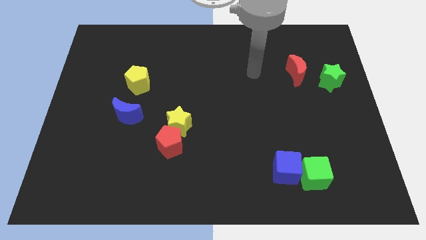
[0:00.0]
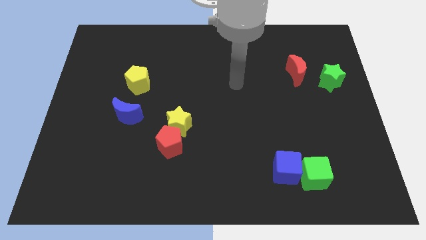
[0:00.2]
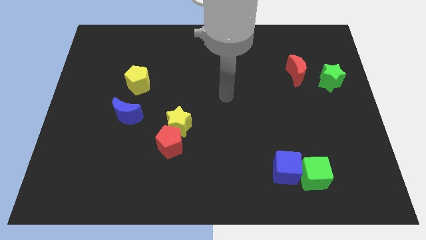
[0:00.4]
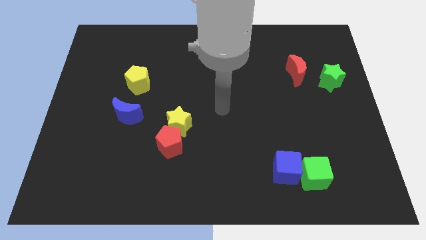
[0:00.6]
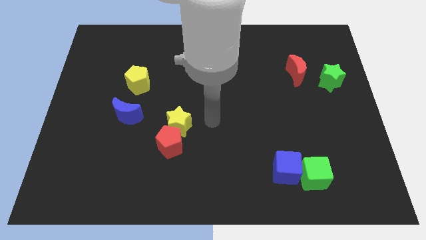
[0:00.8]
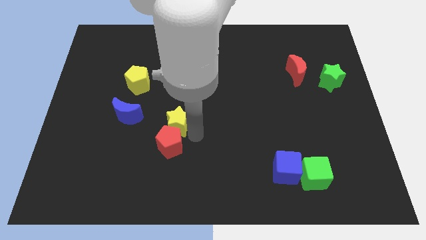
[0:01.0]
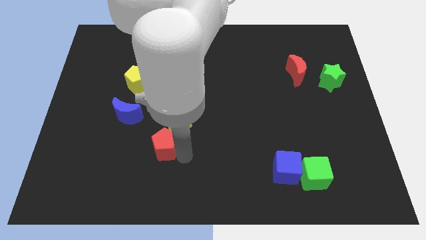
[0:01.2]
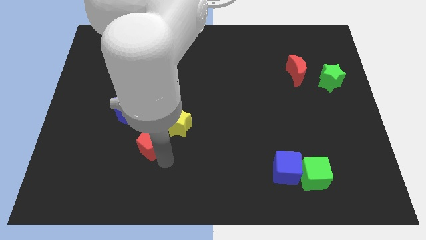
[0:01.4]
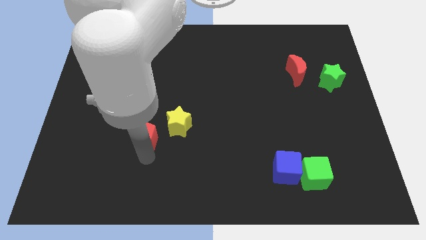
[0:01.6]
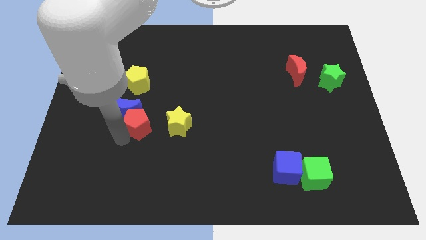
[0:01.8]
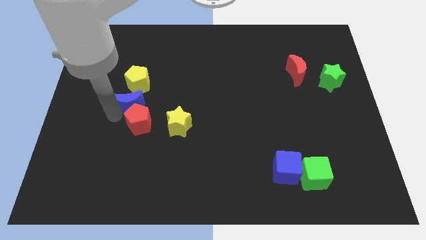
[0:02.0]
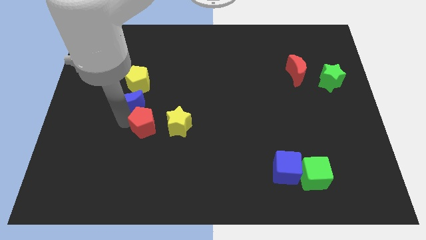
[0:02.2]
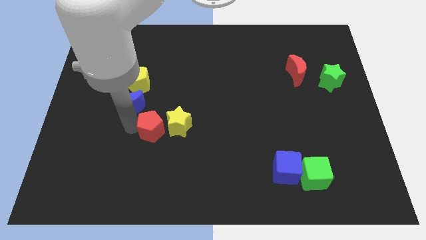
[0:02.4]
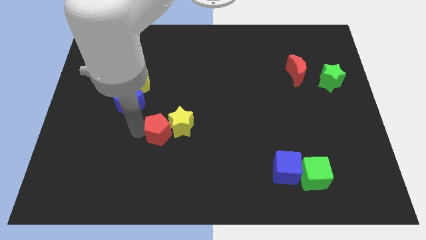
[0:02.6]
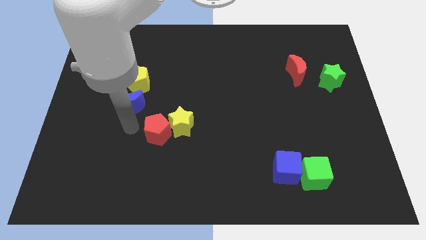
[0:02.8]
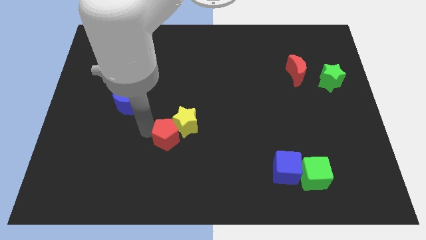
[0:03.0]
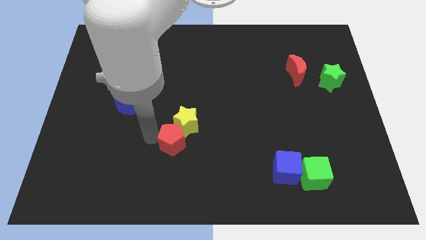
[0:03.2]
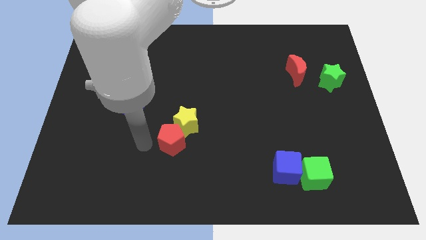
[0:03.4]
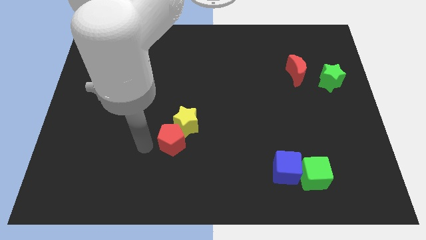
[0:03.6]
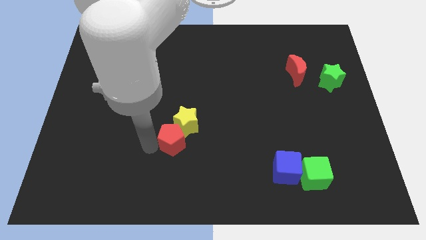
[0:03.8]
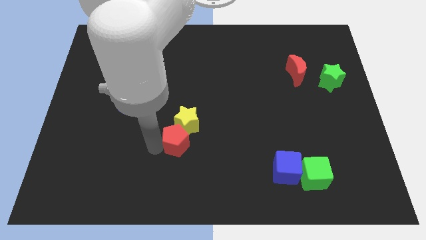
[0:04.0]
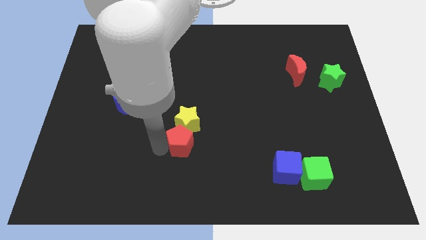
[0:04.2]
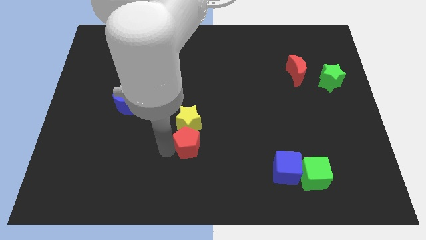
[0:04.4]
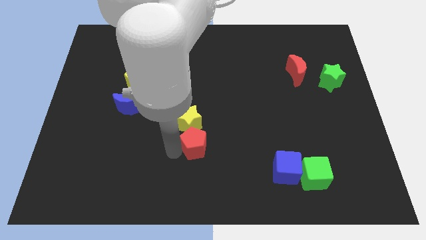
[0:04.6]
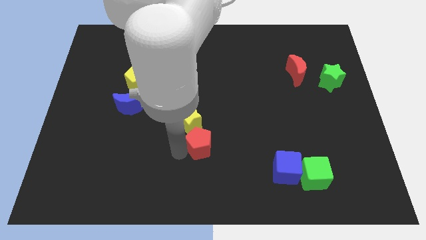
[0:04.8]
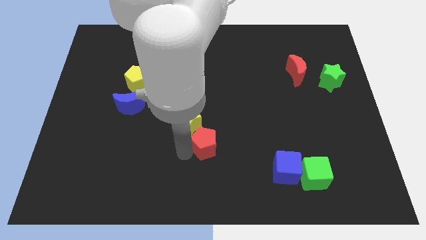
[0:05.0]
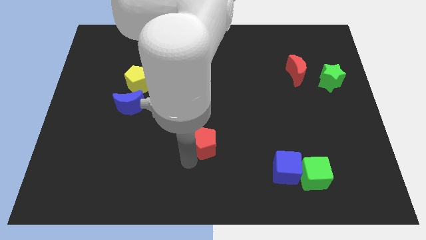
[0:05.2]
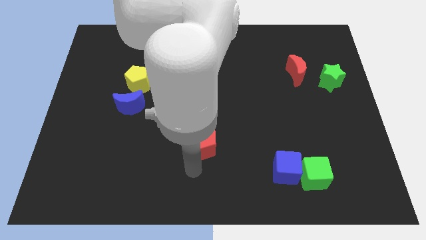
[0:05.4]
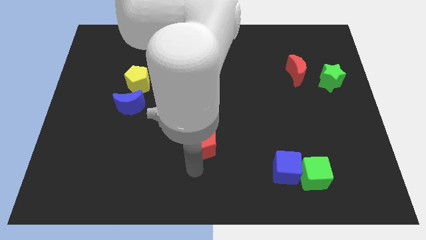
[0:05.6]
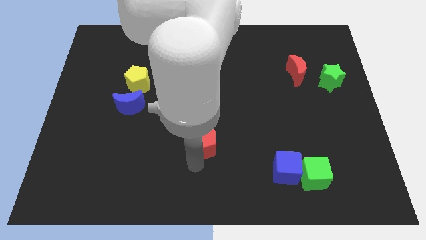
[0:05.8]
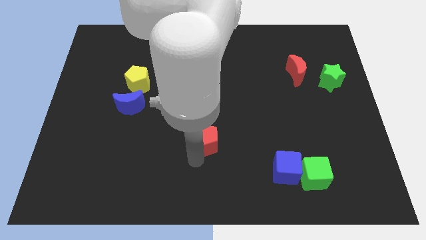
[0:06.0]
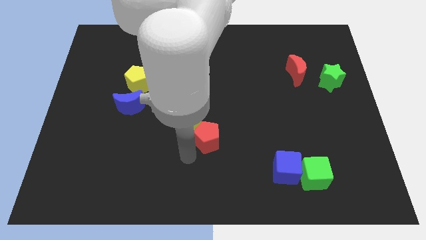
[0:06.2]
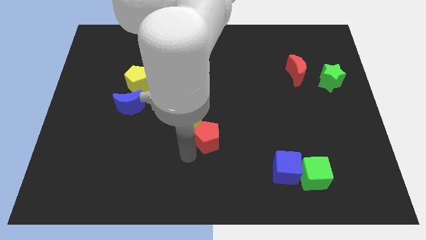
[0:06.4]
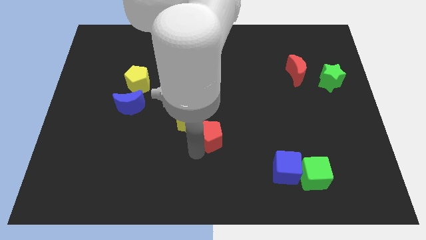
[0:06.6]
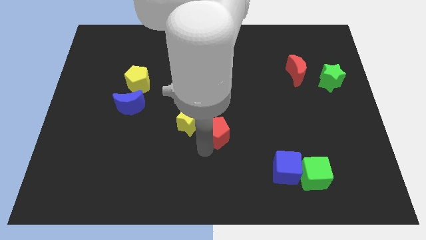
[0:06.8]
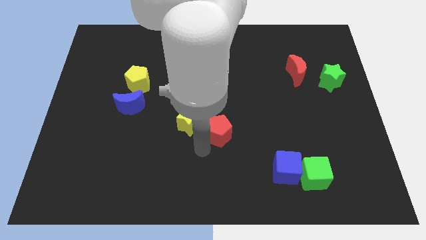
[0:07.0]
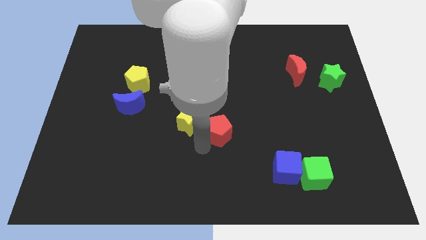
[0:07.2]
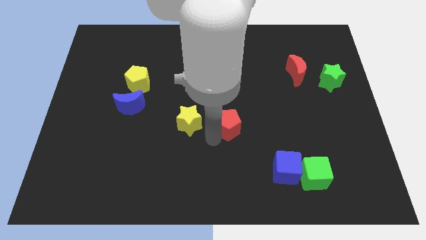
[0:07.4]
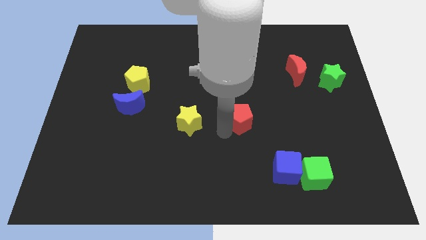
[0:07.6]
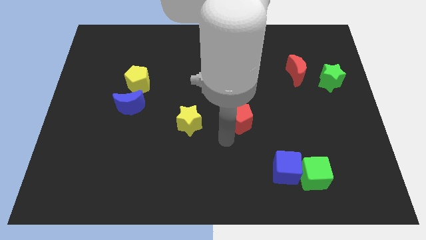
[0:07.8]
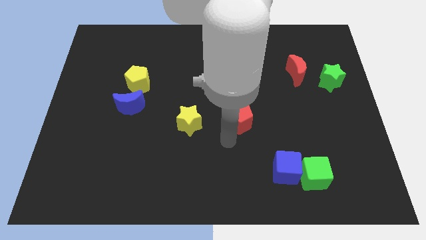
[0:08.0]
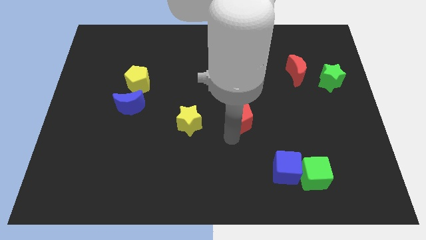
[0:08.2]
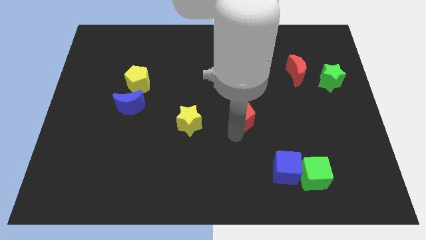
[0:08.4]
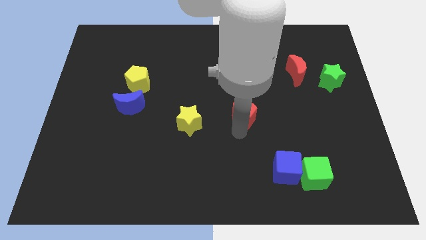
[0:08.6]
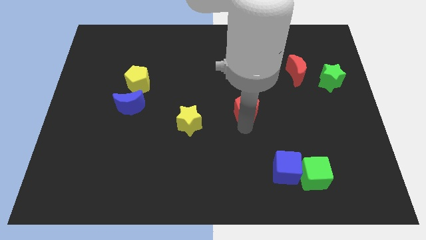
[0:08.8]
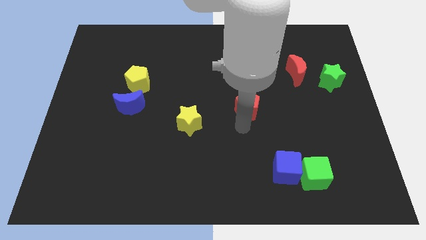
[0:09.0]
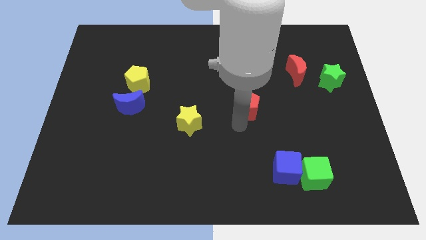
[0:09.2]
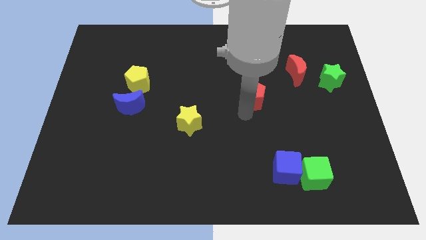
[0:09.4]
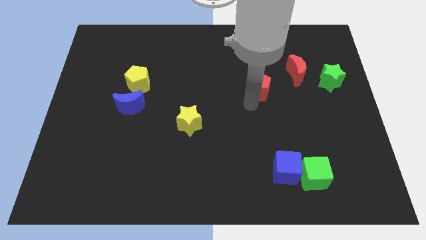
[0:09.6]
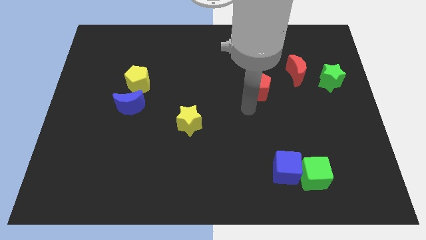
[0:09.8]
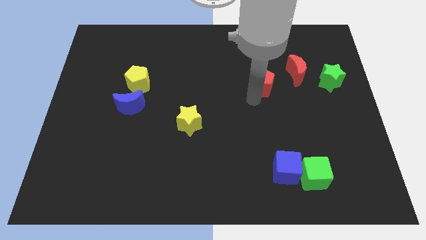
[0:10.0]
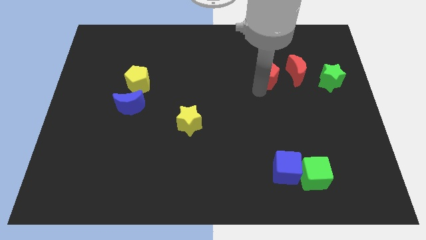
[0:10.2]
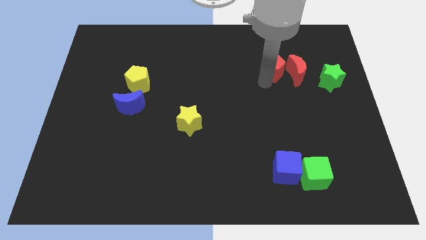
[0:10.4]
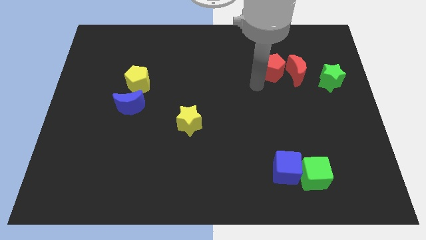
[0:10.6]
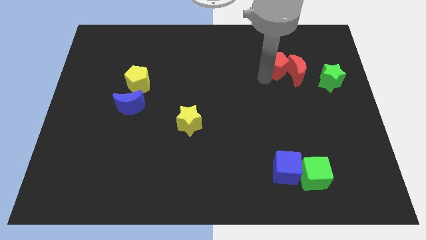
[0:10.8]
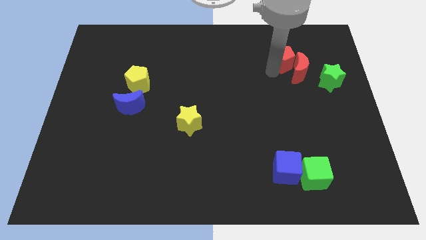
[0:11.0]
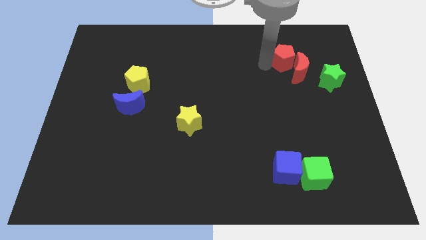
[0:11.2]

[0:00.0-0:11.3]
move the red pentagon to the top left of the green star

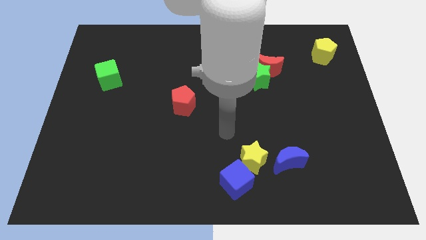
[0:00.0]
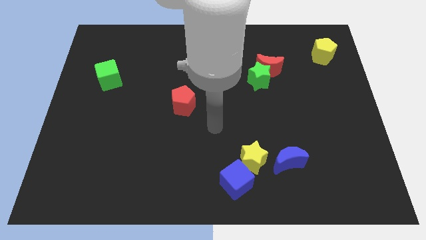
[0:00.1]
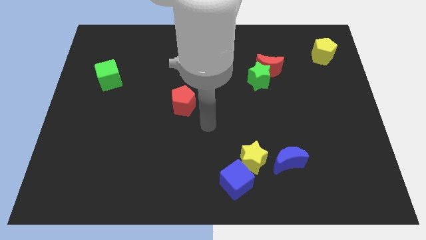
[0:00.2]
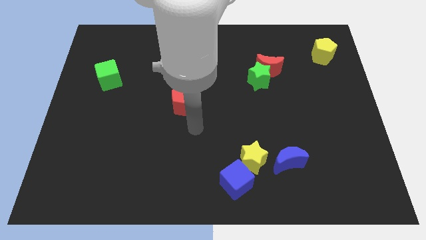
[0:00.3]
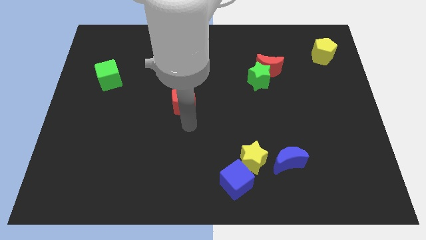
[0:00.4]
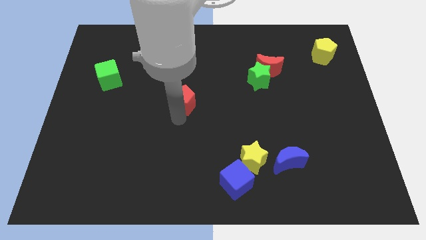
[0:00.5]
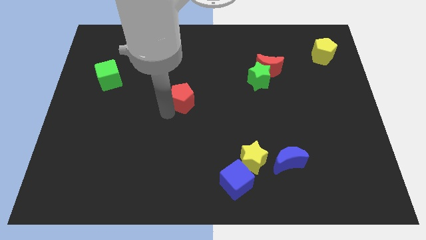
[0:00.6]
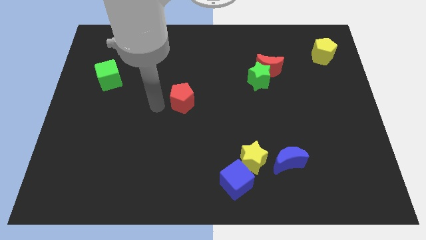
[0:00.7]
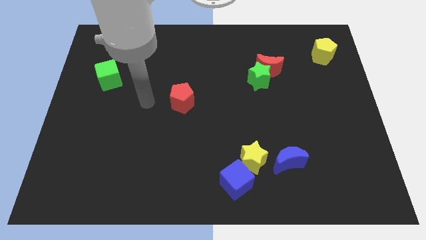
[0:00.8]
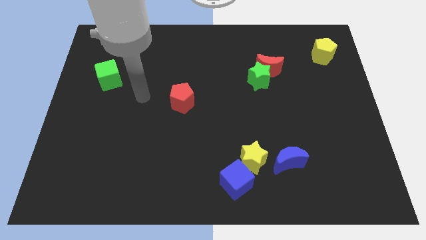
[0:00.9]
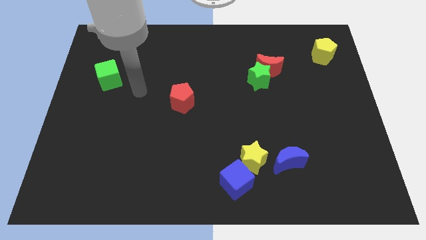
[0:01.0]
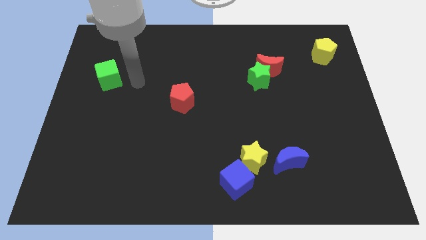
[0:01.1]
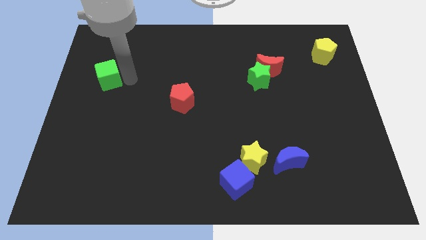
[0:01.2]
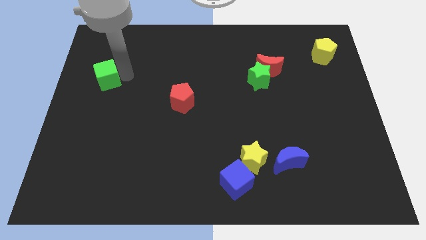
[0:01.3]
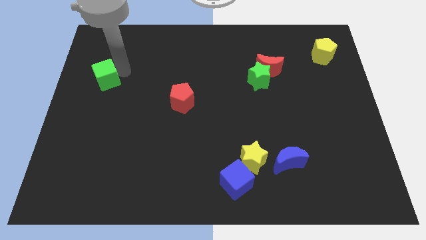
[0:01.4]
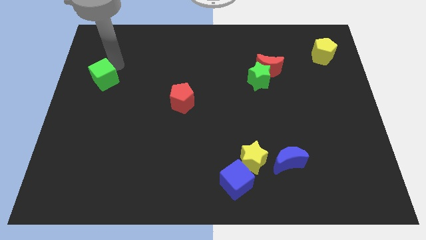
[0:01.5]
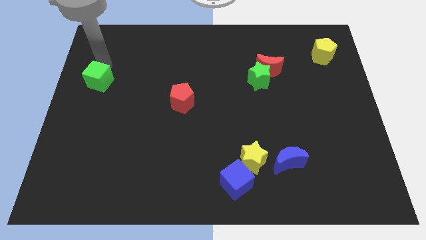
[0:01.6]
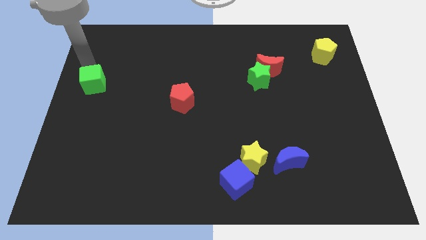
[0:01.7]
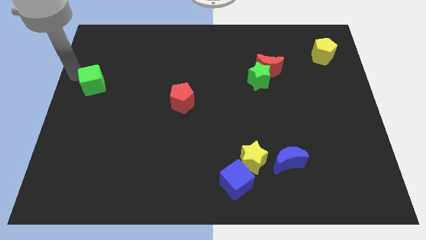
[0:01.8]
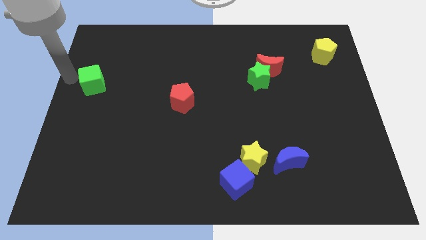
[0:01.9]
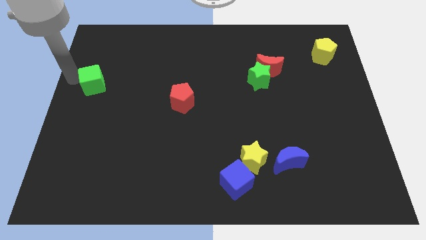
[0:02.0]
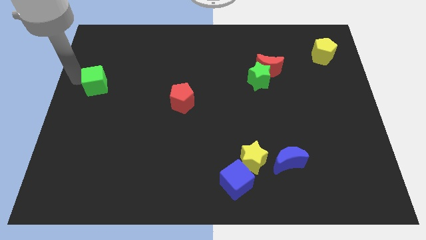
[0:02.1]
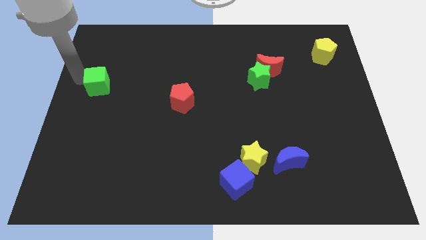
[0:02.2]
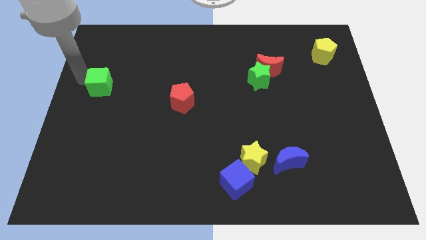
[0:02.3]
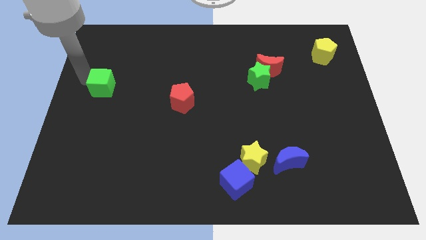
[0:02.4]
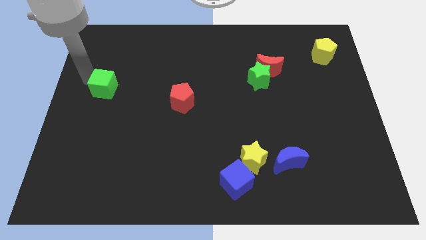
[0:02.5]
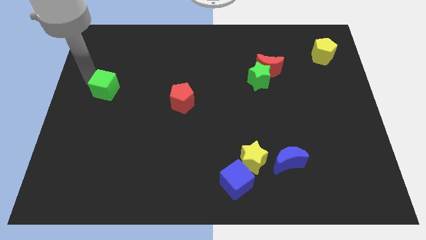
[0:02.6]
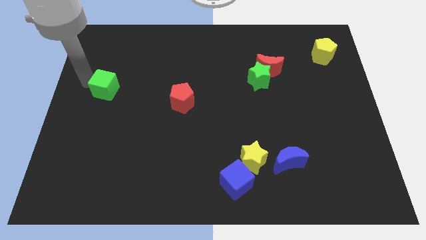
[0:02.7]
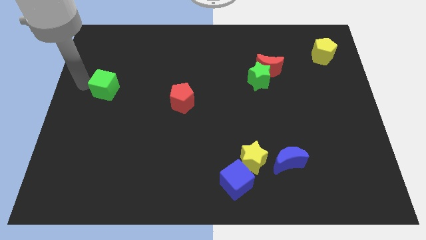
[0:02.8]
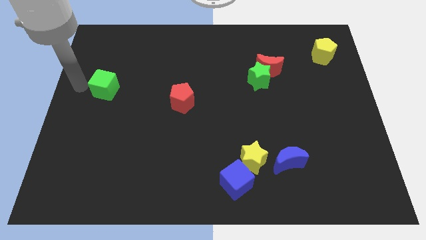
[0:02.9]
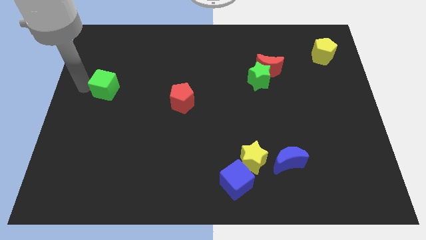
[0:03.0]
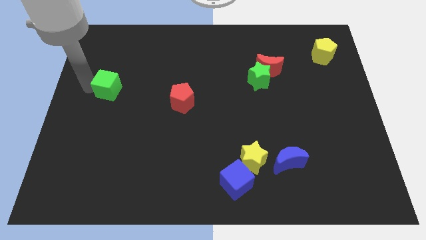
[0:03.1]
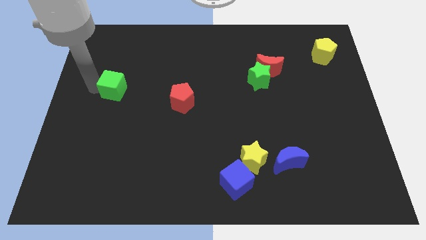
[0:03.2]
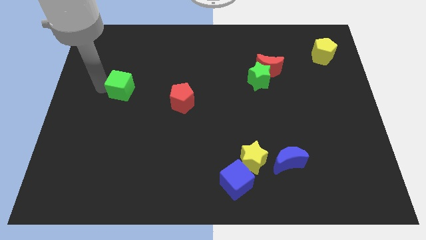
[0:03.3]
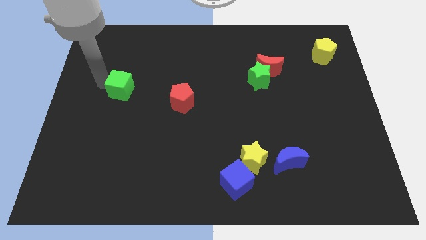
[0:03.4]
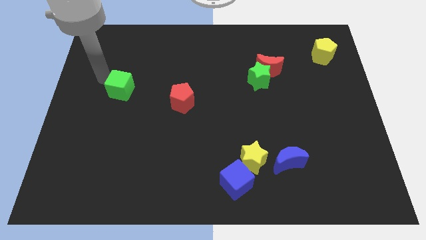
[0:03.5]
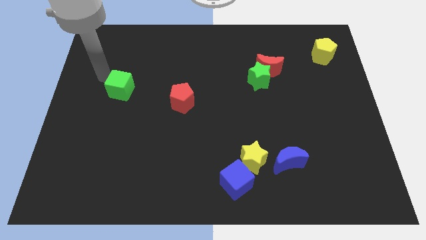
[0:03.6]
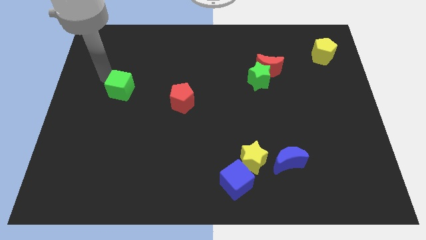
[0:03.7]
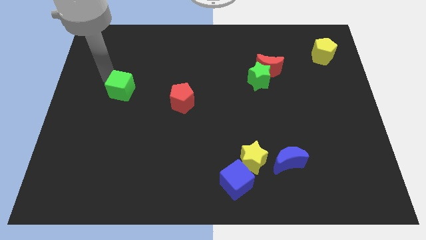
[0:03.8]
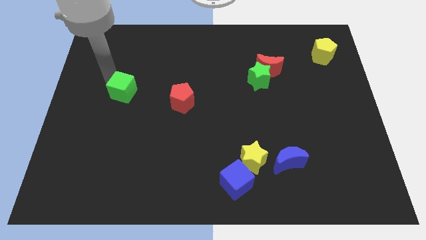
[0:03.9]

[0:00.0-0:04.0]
push the green cube left of the red pentagon
